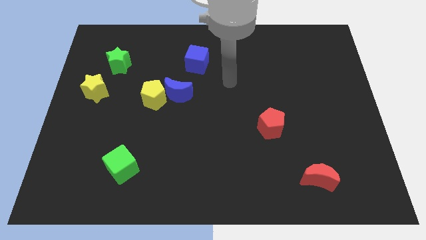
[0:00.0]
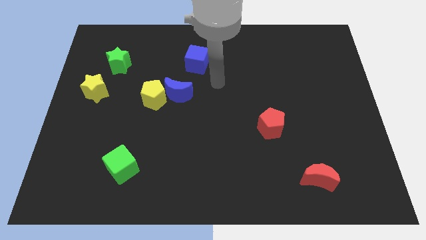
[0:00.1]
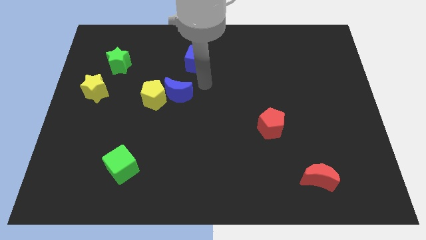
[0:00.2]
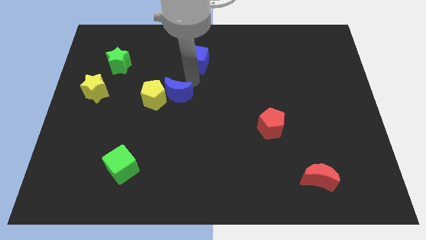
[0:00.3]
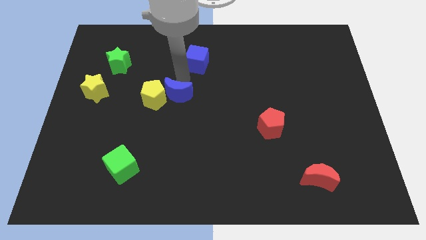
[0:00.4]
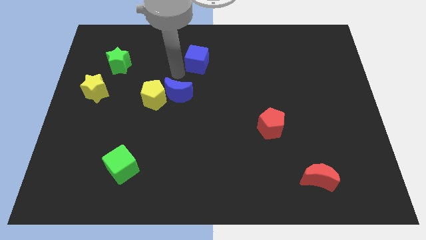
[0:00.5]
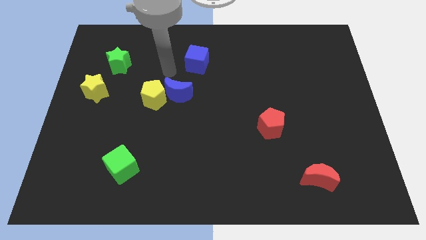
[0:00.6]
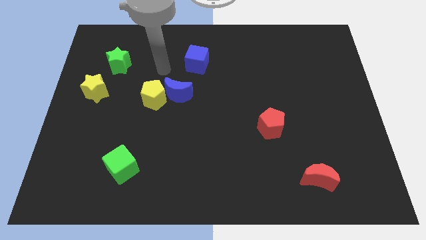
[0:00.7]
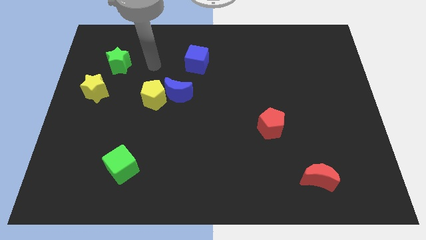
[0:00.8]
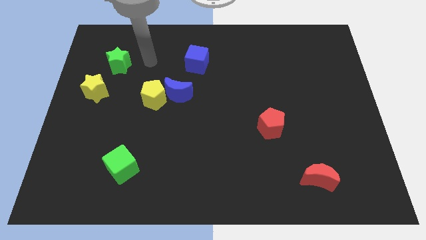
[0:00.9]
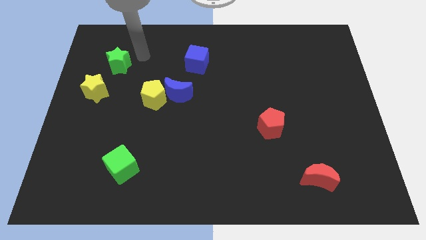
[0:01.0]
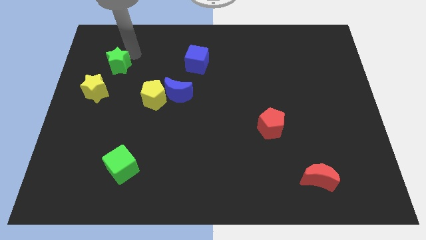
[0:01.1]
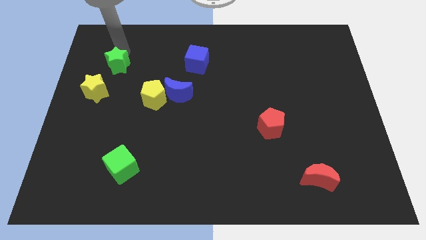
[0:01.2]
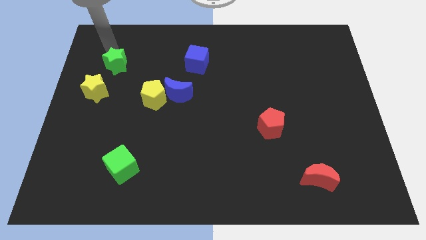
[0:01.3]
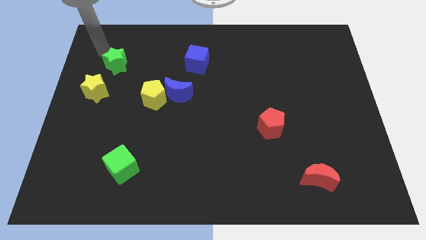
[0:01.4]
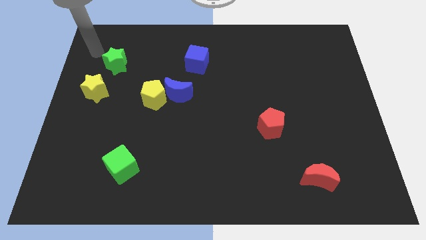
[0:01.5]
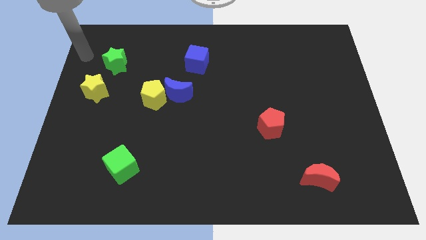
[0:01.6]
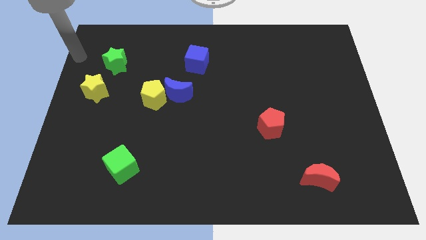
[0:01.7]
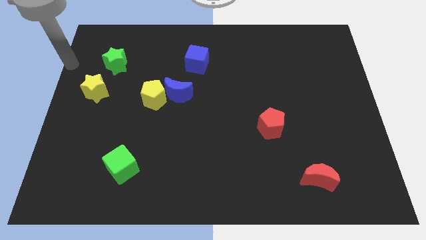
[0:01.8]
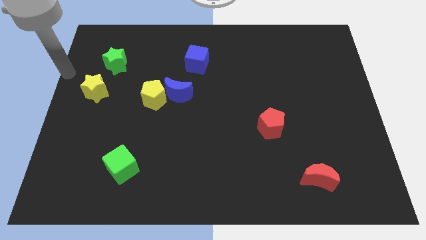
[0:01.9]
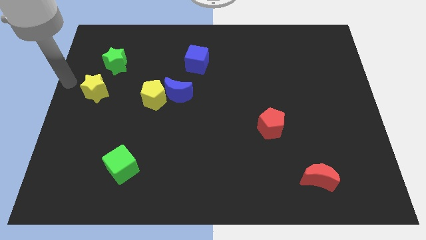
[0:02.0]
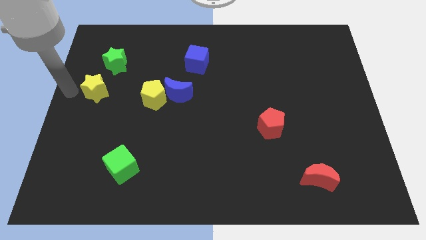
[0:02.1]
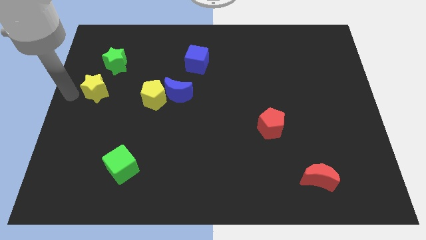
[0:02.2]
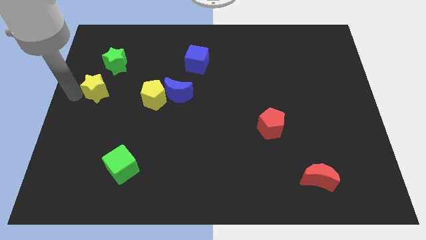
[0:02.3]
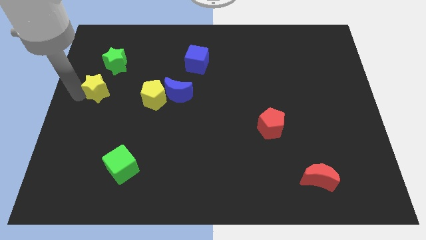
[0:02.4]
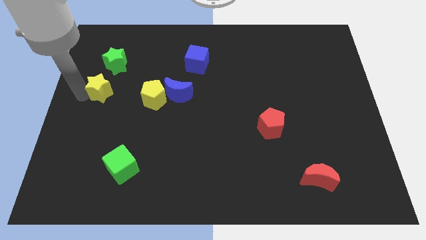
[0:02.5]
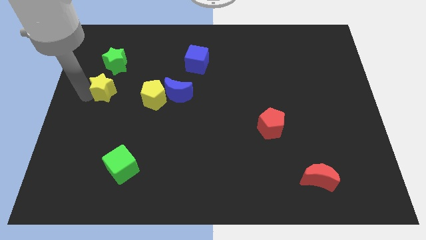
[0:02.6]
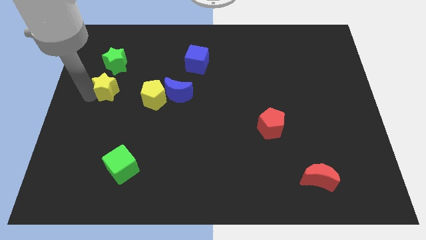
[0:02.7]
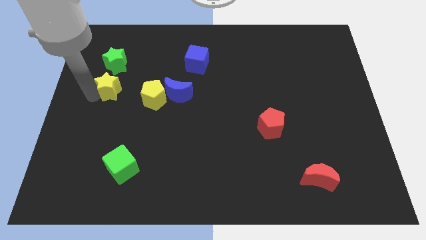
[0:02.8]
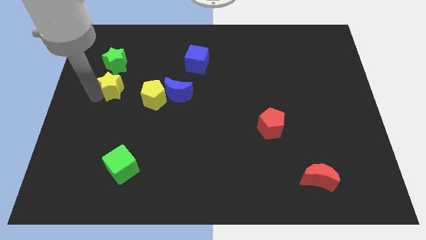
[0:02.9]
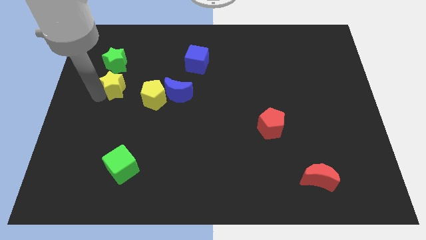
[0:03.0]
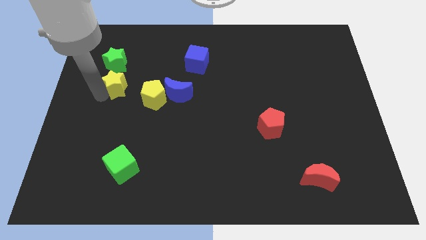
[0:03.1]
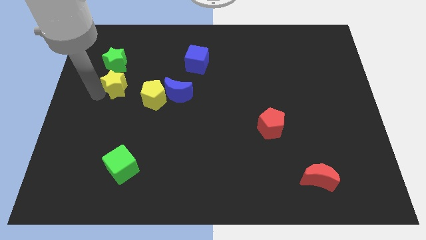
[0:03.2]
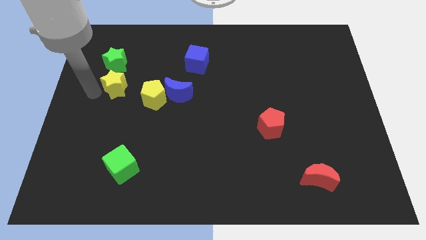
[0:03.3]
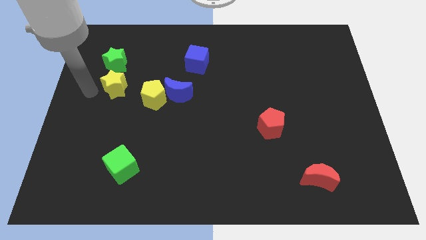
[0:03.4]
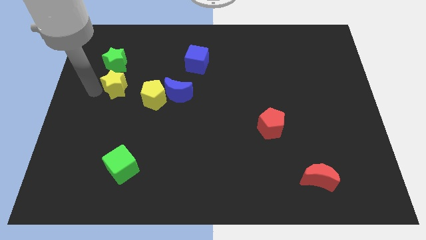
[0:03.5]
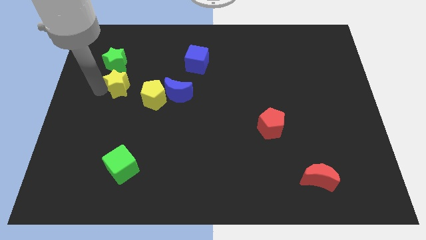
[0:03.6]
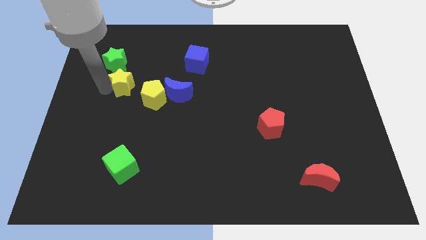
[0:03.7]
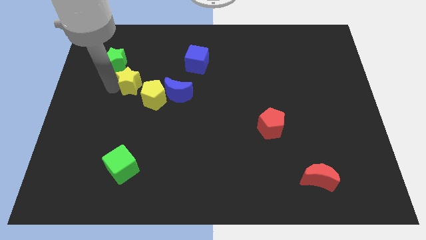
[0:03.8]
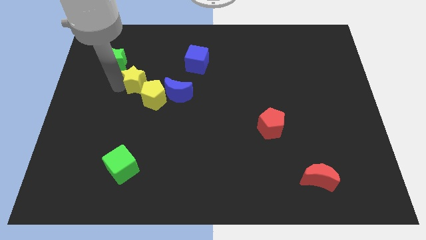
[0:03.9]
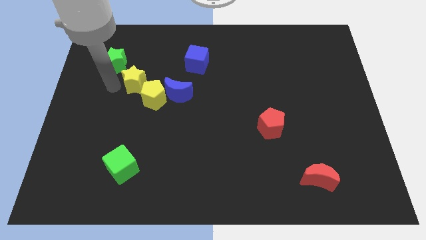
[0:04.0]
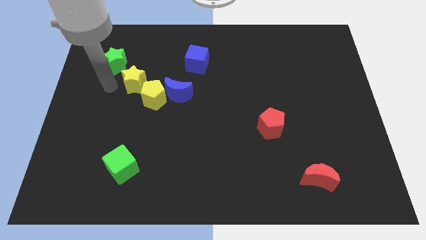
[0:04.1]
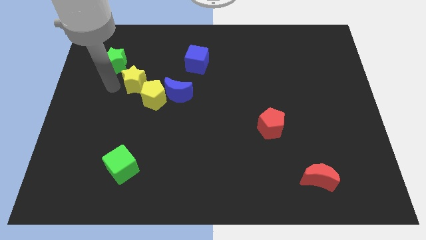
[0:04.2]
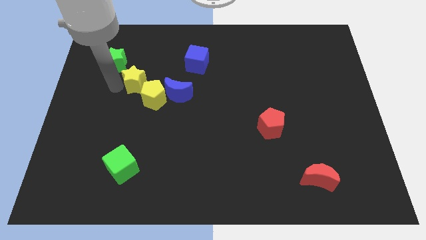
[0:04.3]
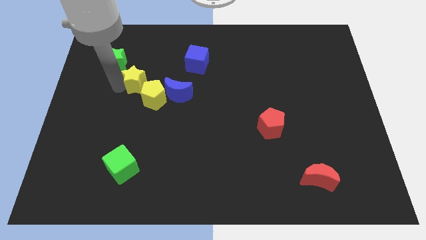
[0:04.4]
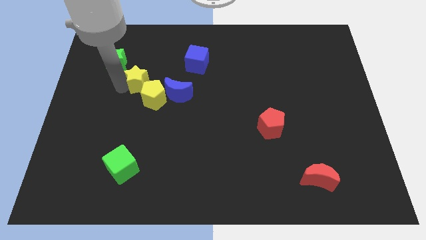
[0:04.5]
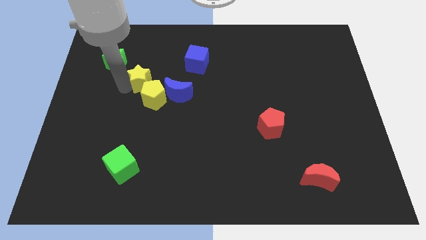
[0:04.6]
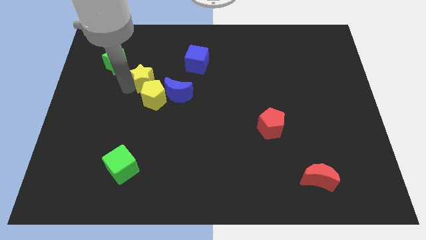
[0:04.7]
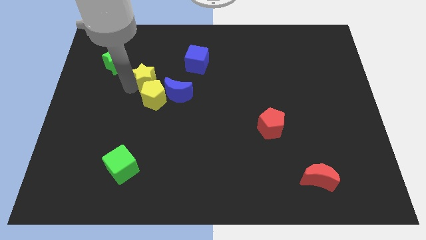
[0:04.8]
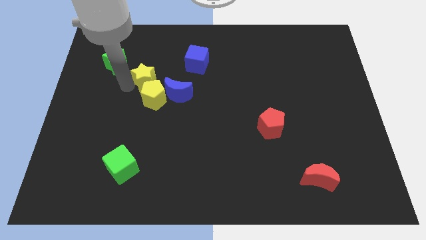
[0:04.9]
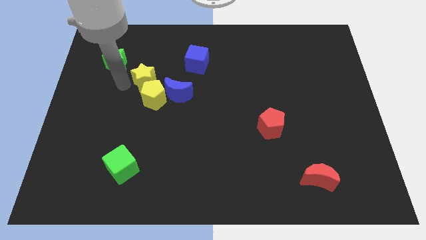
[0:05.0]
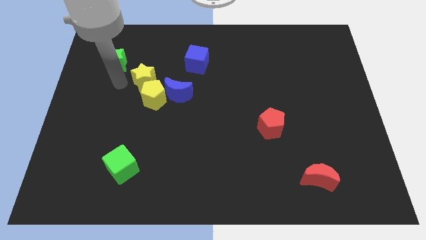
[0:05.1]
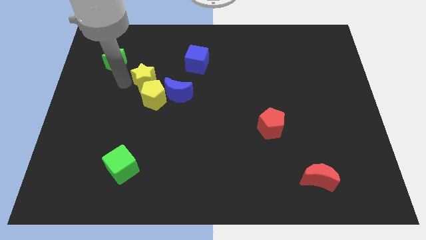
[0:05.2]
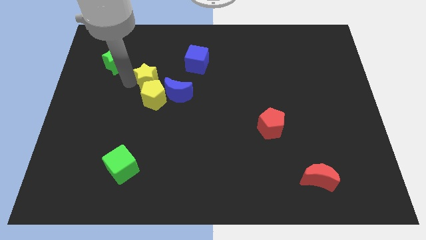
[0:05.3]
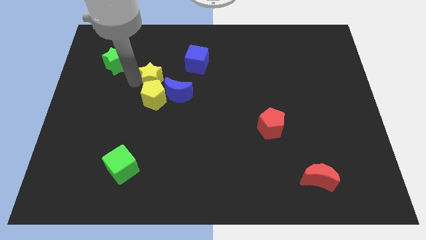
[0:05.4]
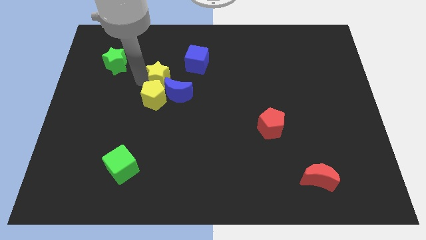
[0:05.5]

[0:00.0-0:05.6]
push the yellow star to the bottom left side of the blue cube
